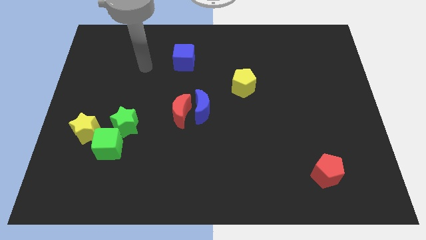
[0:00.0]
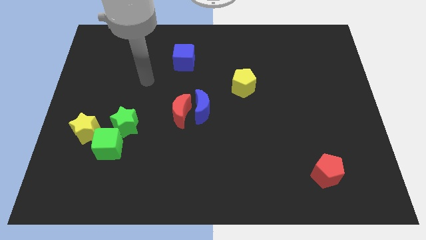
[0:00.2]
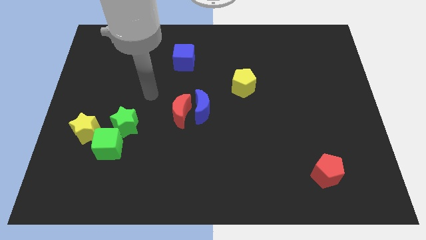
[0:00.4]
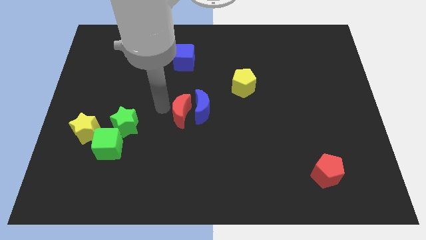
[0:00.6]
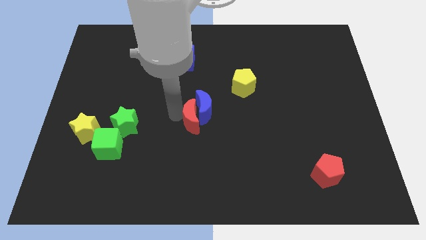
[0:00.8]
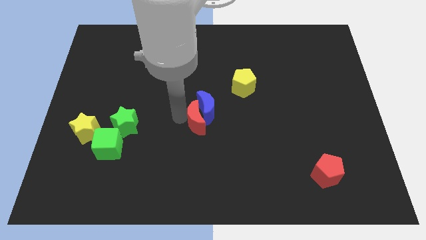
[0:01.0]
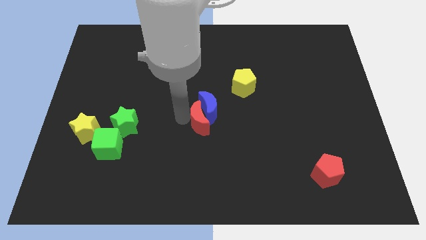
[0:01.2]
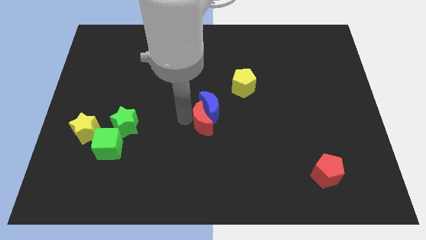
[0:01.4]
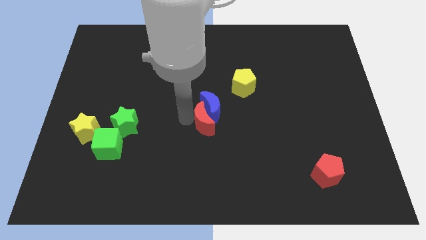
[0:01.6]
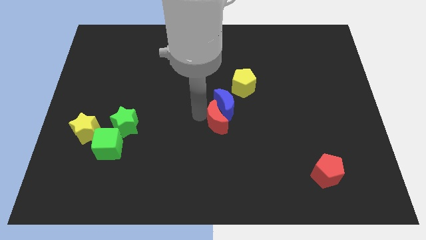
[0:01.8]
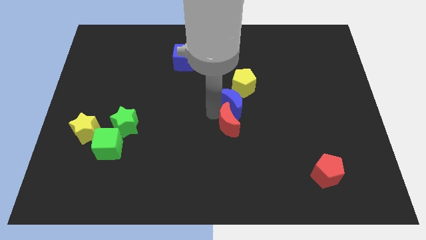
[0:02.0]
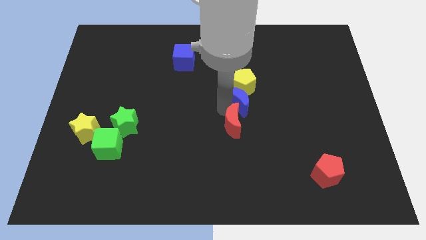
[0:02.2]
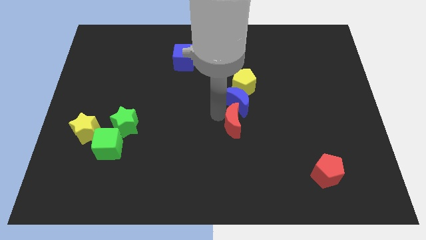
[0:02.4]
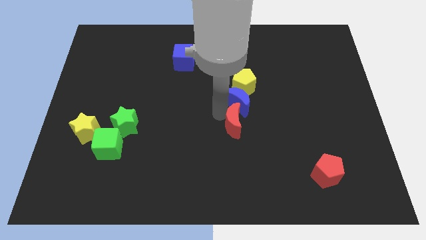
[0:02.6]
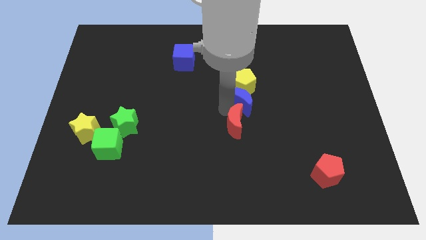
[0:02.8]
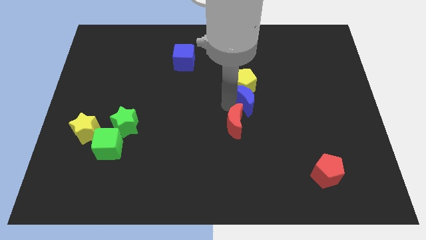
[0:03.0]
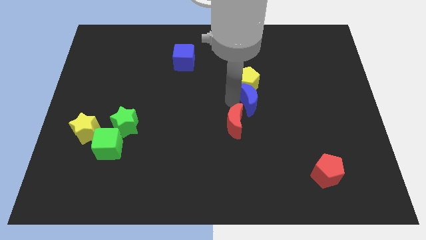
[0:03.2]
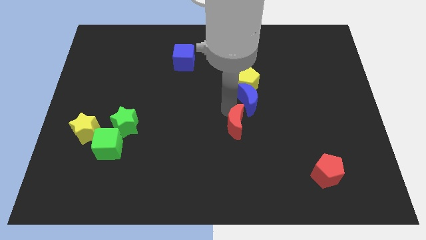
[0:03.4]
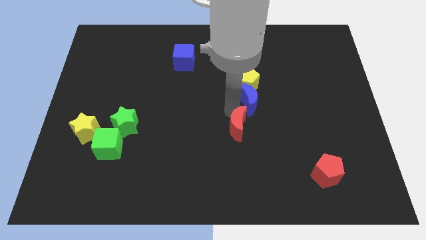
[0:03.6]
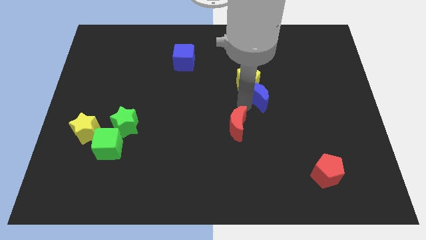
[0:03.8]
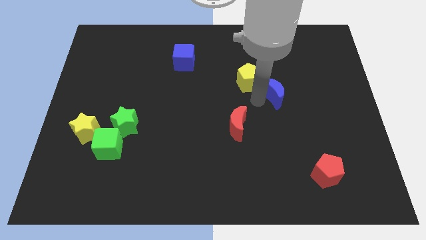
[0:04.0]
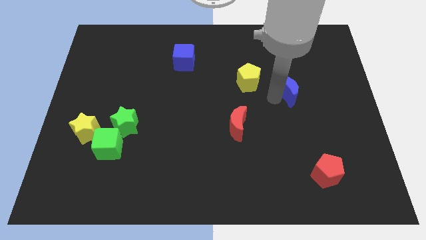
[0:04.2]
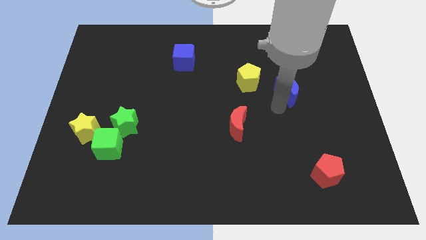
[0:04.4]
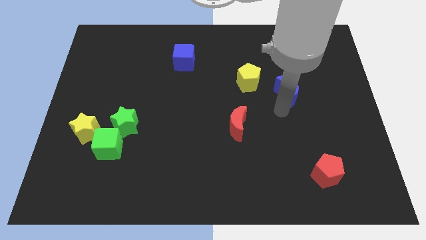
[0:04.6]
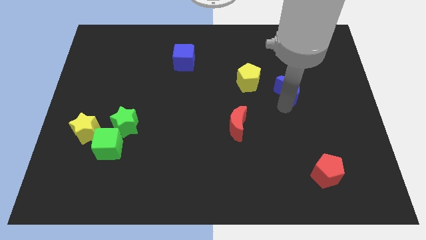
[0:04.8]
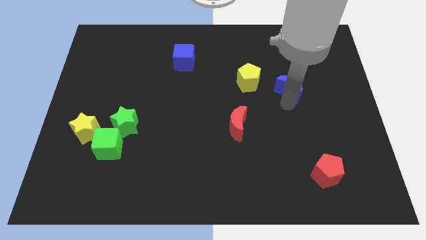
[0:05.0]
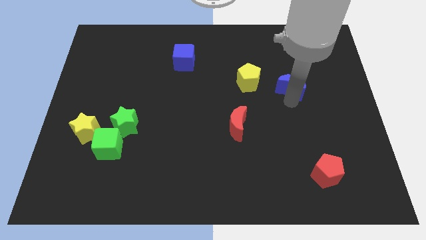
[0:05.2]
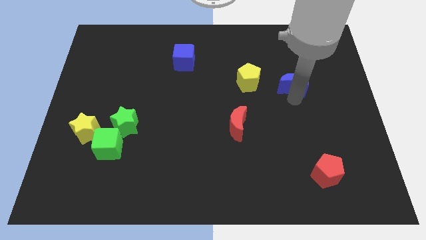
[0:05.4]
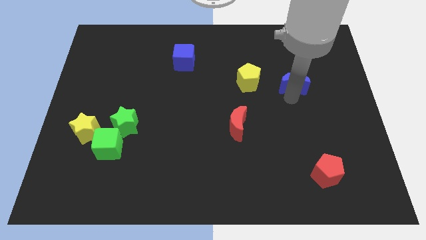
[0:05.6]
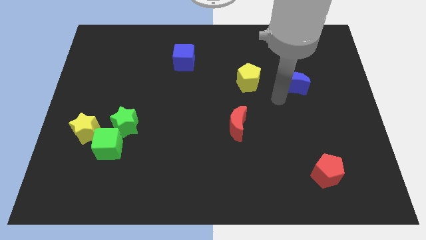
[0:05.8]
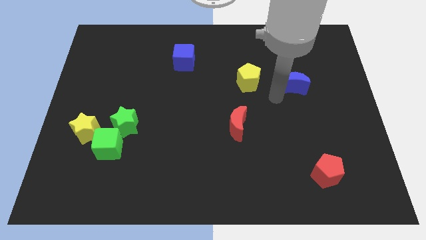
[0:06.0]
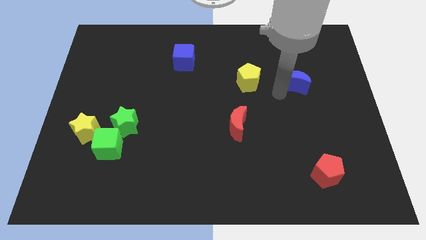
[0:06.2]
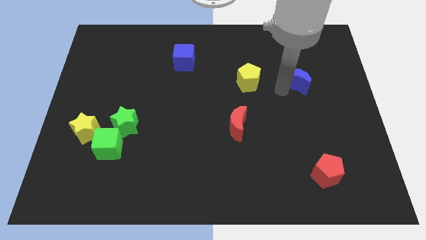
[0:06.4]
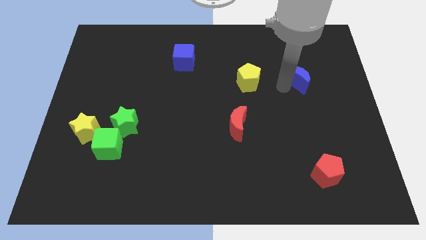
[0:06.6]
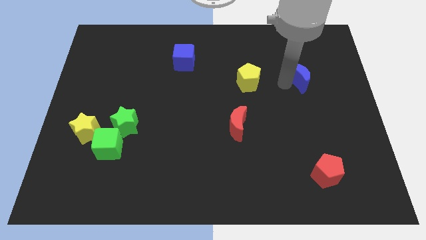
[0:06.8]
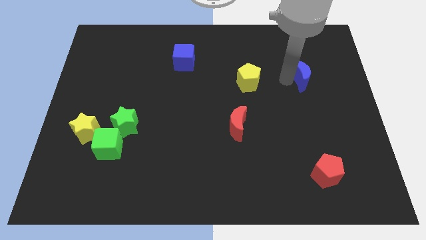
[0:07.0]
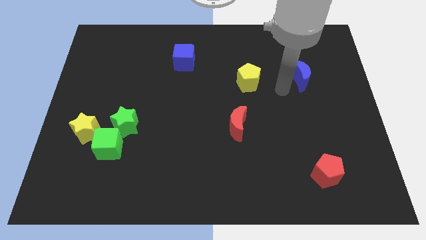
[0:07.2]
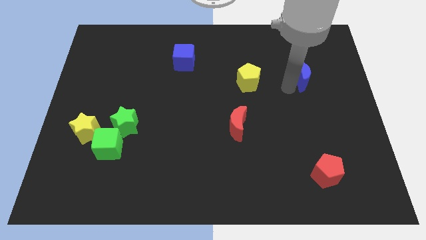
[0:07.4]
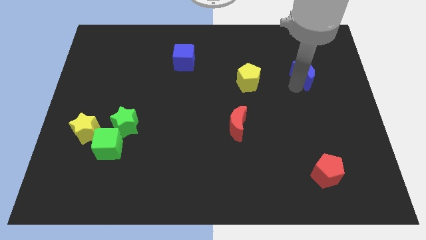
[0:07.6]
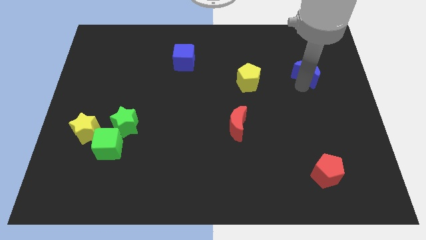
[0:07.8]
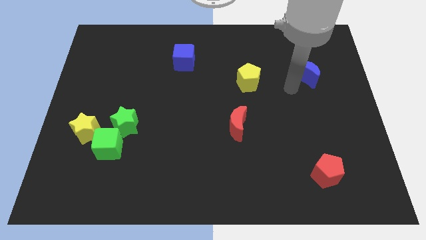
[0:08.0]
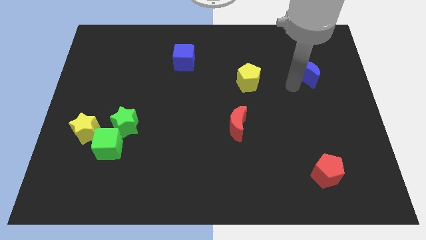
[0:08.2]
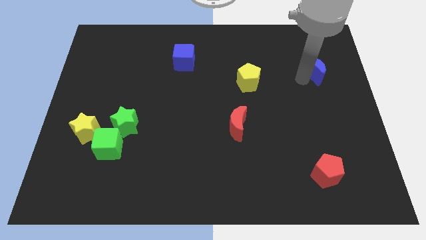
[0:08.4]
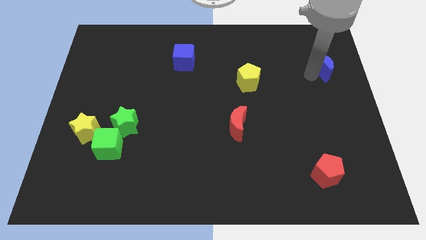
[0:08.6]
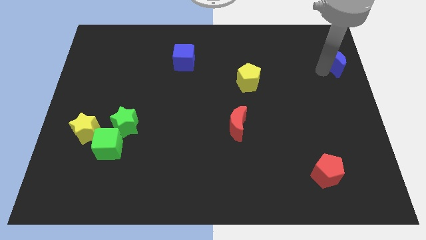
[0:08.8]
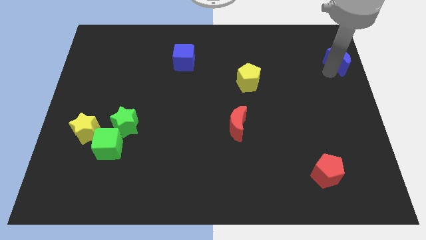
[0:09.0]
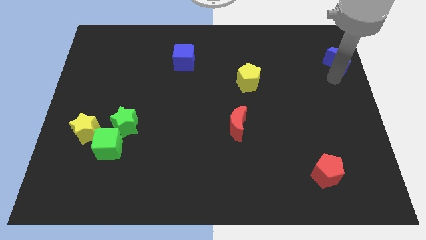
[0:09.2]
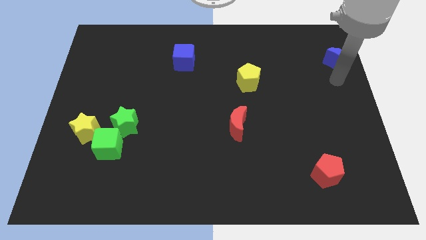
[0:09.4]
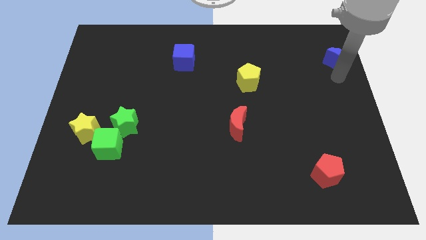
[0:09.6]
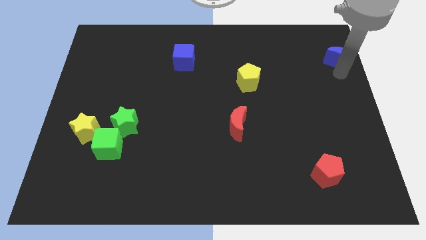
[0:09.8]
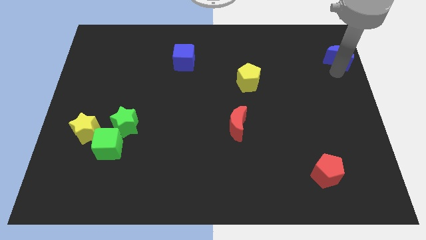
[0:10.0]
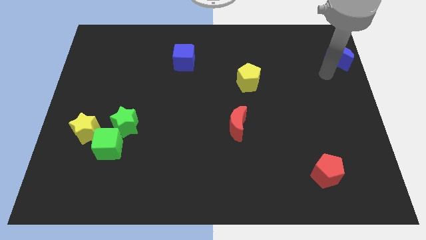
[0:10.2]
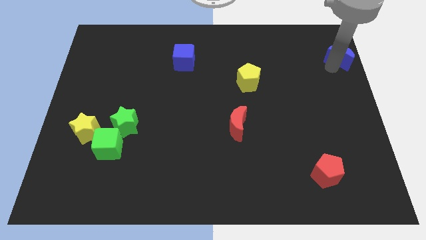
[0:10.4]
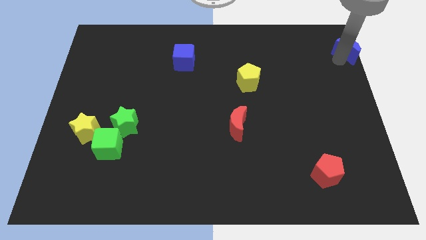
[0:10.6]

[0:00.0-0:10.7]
put the blue moon to the upper right corner
